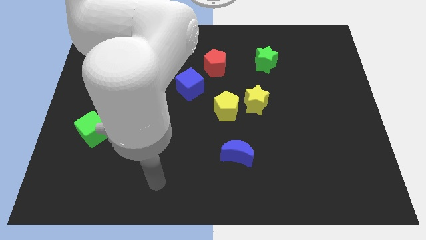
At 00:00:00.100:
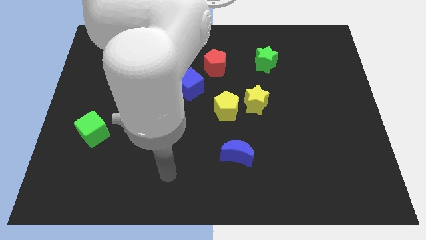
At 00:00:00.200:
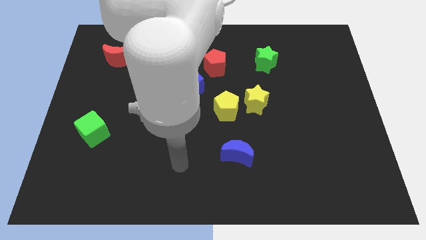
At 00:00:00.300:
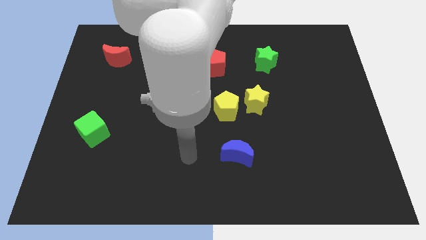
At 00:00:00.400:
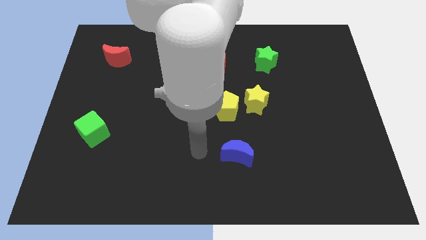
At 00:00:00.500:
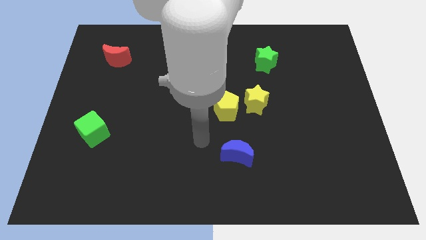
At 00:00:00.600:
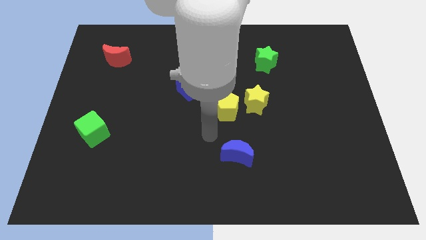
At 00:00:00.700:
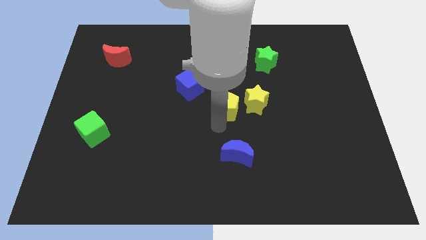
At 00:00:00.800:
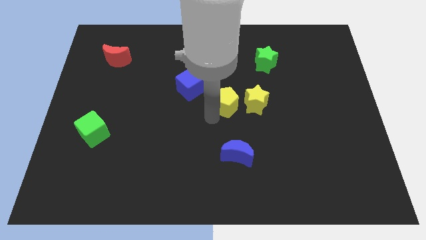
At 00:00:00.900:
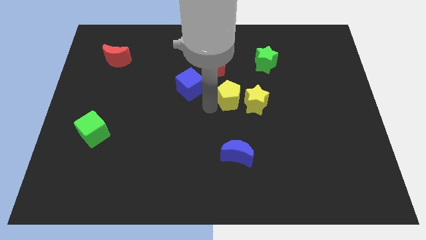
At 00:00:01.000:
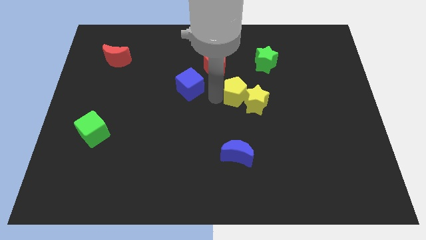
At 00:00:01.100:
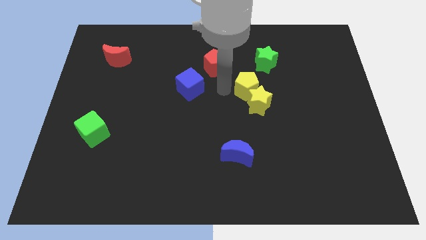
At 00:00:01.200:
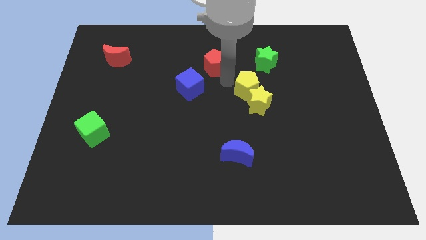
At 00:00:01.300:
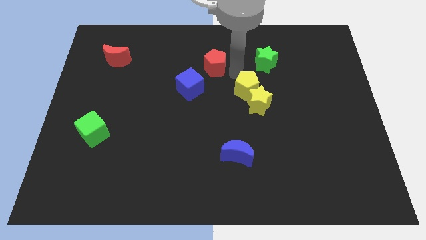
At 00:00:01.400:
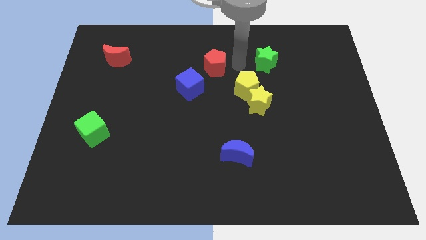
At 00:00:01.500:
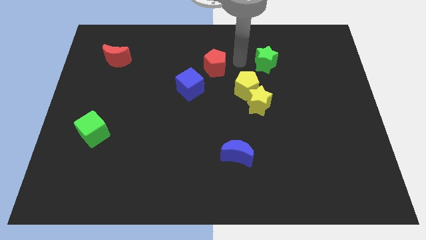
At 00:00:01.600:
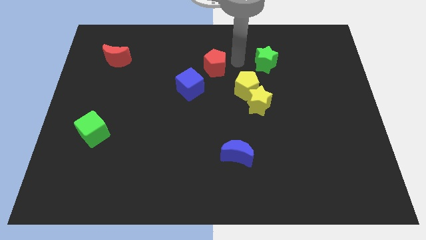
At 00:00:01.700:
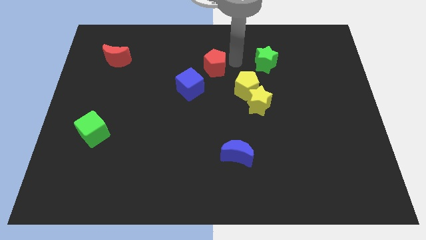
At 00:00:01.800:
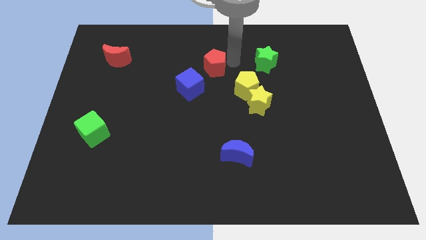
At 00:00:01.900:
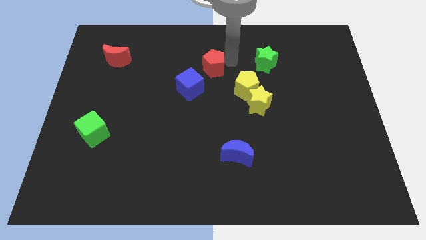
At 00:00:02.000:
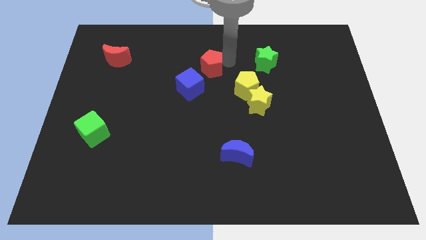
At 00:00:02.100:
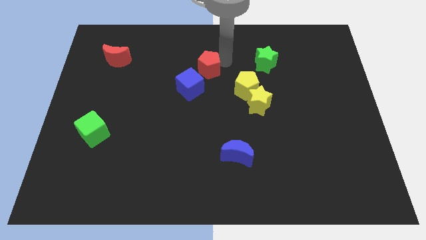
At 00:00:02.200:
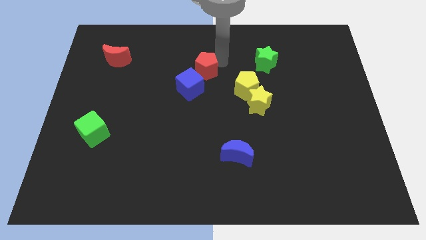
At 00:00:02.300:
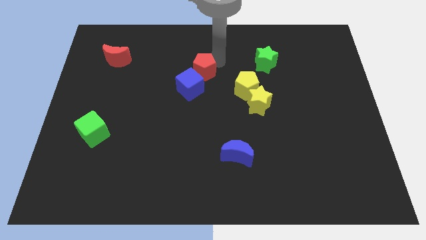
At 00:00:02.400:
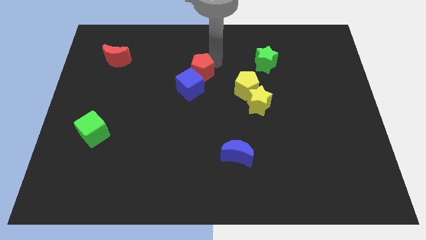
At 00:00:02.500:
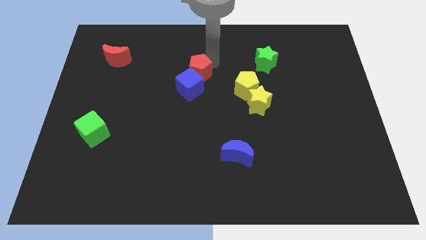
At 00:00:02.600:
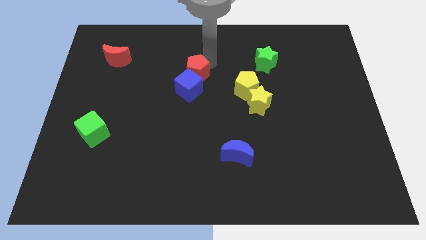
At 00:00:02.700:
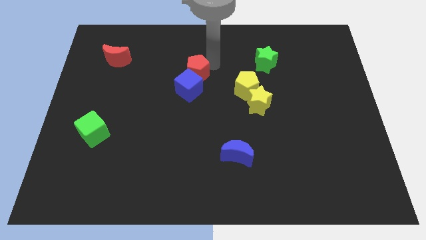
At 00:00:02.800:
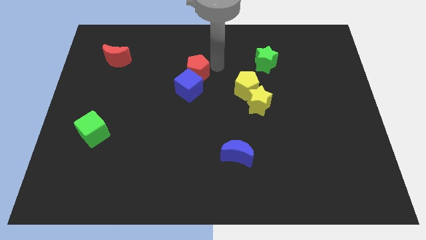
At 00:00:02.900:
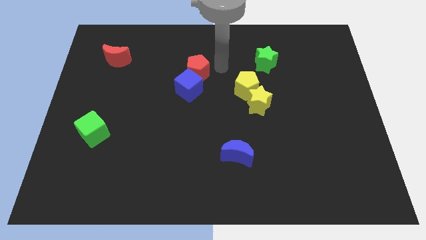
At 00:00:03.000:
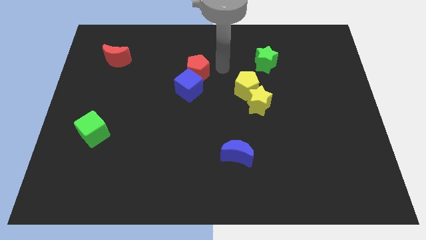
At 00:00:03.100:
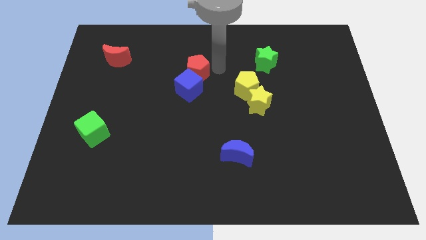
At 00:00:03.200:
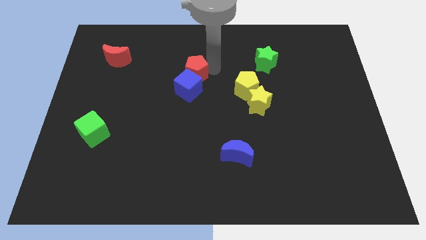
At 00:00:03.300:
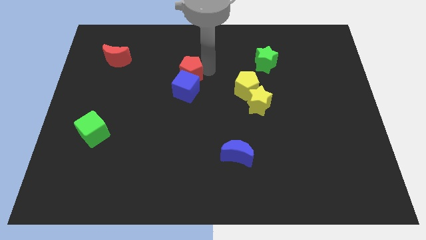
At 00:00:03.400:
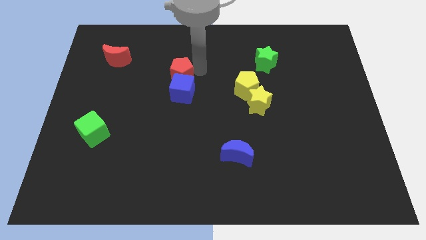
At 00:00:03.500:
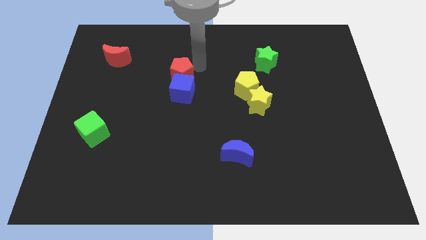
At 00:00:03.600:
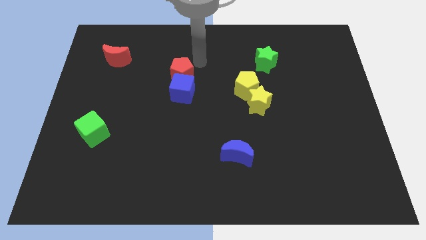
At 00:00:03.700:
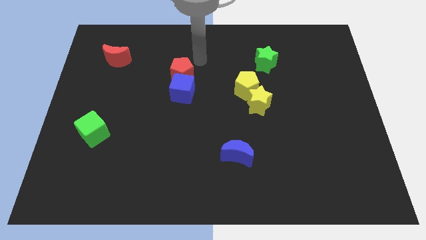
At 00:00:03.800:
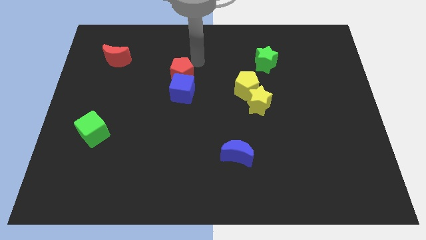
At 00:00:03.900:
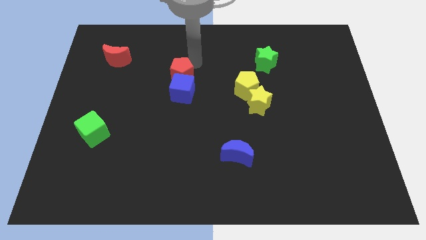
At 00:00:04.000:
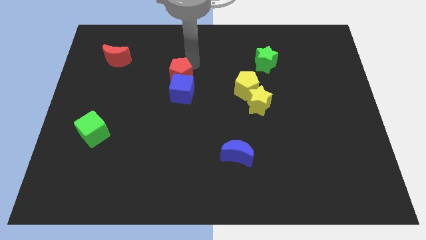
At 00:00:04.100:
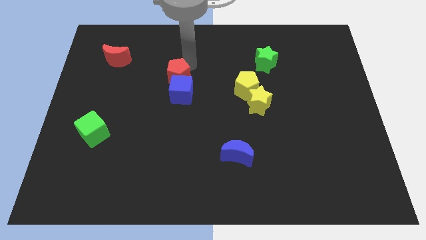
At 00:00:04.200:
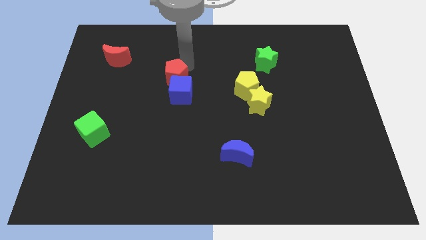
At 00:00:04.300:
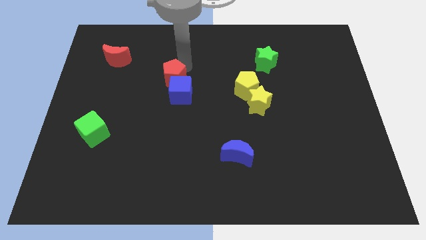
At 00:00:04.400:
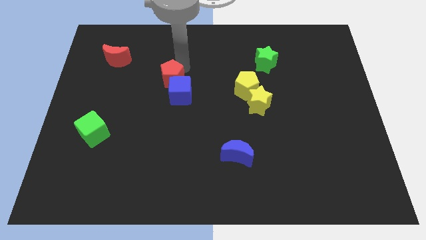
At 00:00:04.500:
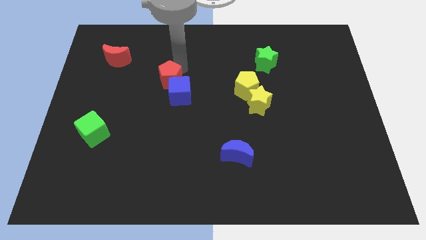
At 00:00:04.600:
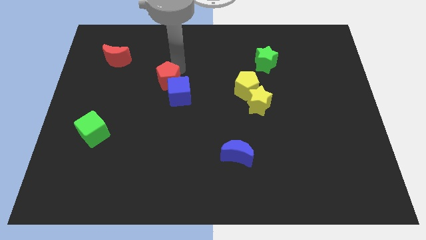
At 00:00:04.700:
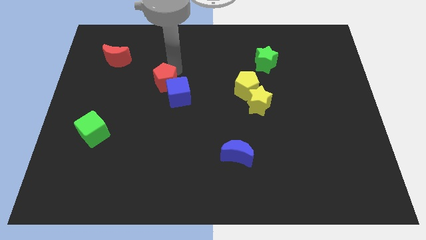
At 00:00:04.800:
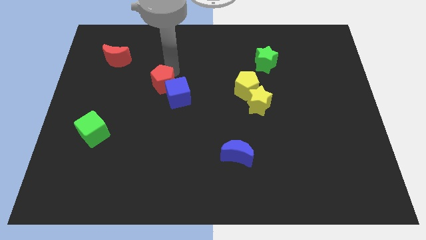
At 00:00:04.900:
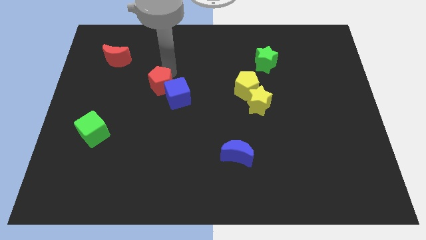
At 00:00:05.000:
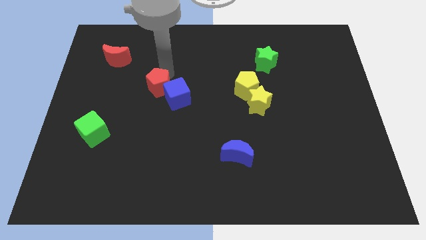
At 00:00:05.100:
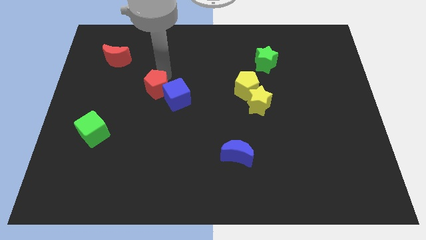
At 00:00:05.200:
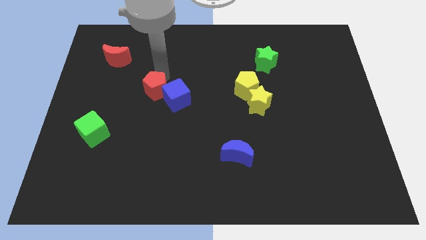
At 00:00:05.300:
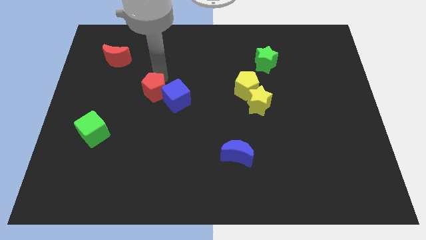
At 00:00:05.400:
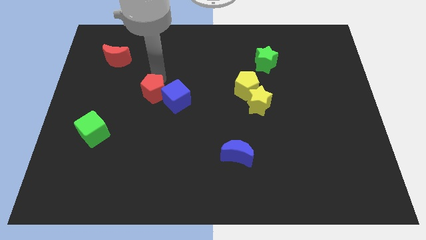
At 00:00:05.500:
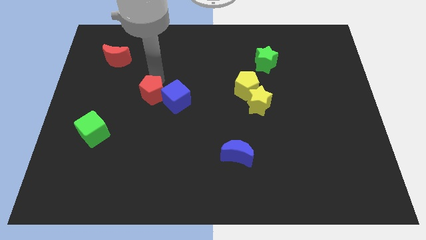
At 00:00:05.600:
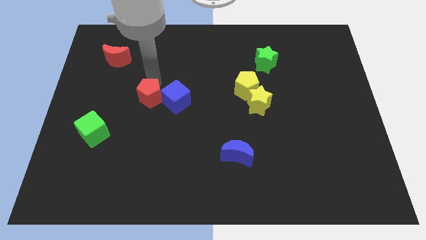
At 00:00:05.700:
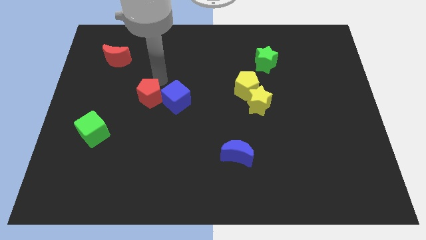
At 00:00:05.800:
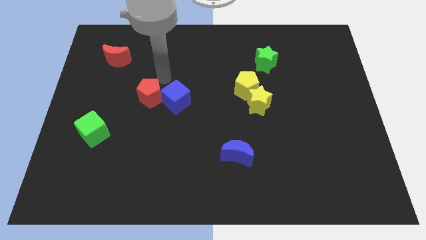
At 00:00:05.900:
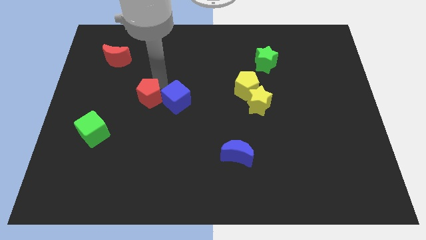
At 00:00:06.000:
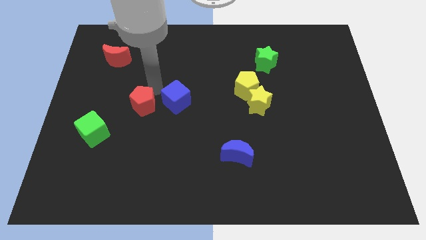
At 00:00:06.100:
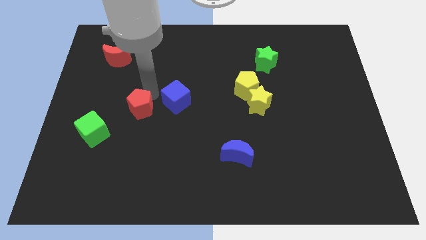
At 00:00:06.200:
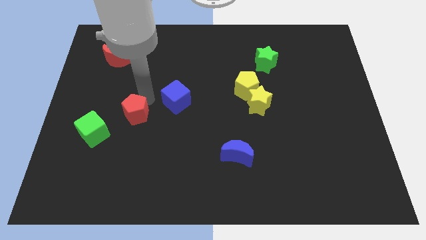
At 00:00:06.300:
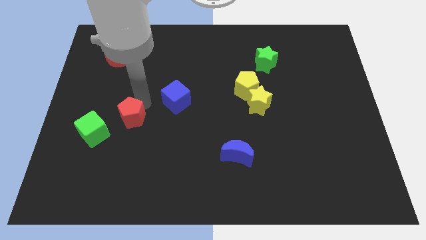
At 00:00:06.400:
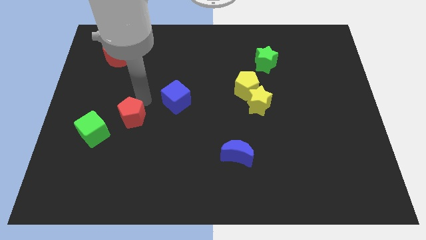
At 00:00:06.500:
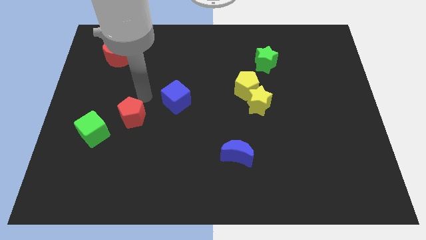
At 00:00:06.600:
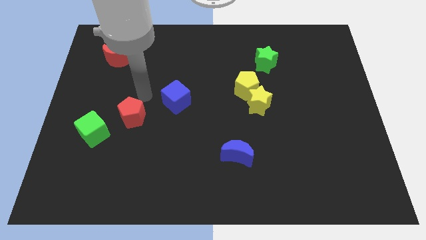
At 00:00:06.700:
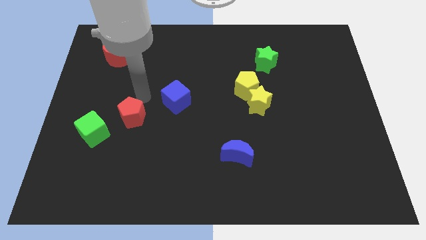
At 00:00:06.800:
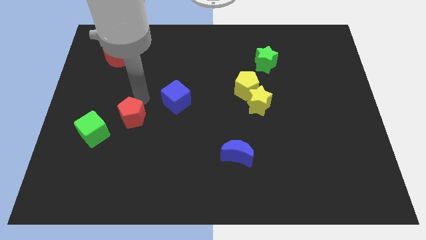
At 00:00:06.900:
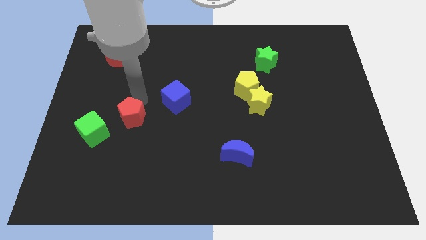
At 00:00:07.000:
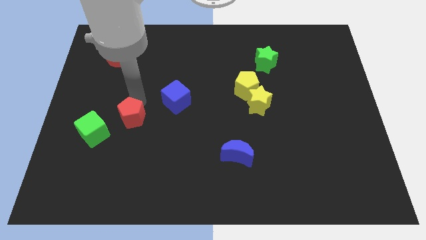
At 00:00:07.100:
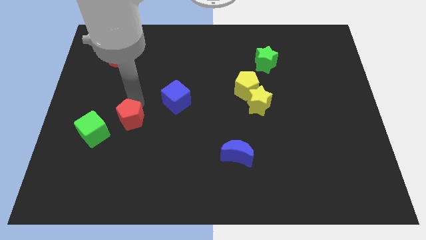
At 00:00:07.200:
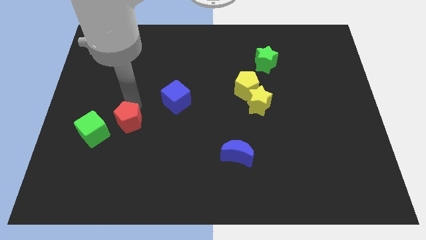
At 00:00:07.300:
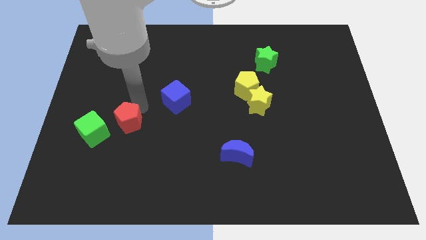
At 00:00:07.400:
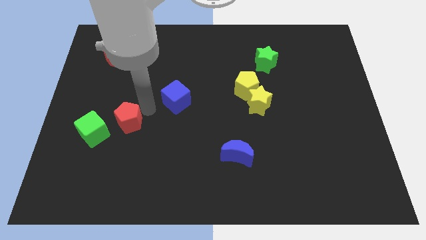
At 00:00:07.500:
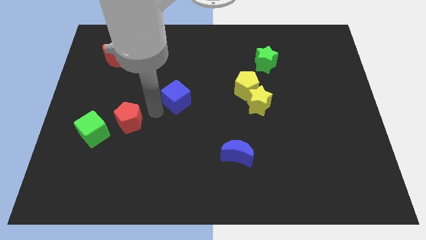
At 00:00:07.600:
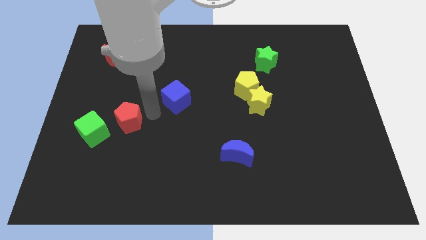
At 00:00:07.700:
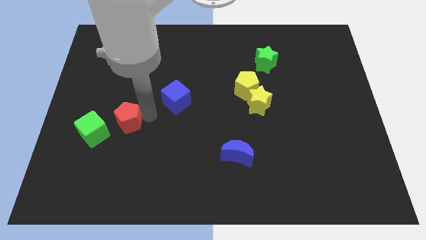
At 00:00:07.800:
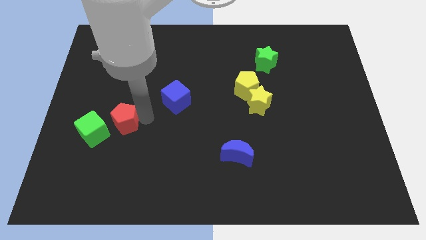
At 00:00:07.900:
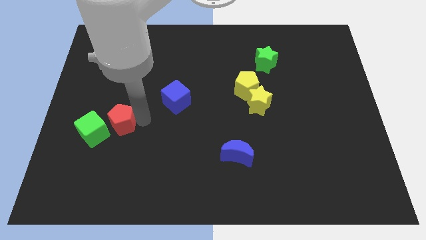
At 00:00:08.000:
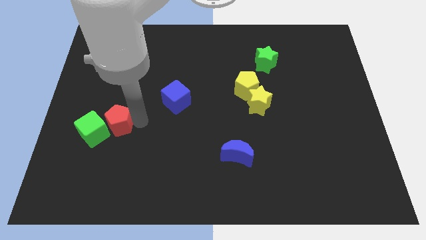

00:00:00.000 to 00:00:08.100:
move the red pentagon to the green cube
